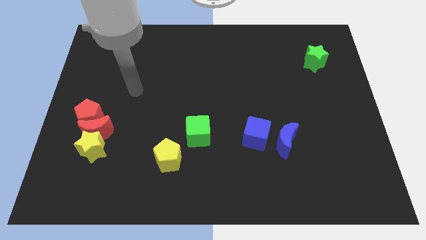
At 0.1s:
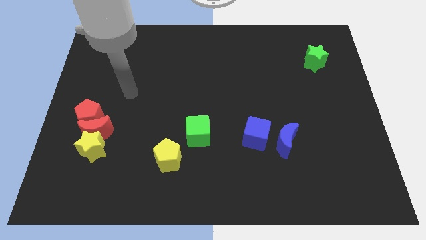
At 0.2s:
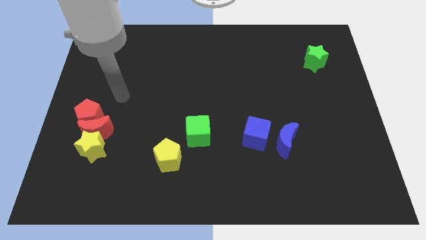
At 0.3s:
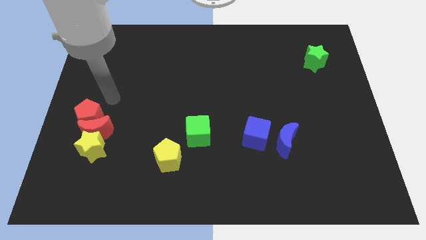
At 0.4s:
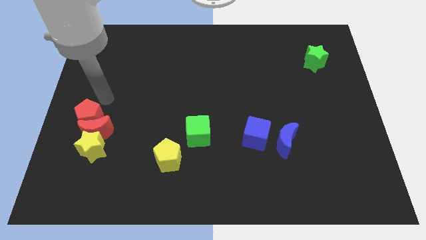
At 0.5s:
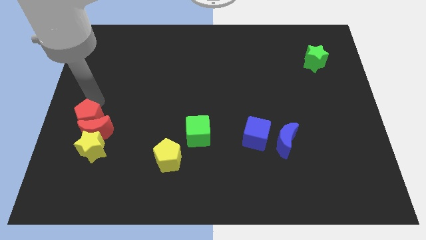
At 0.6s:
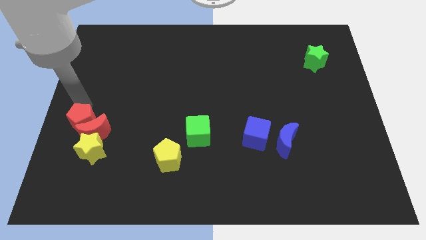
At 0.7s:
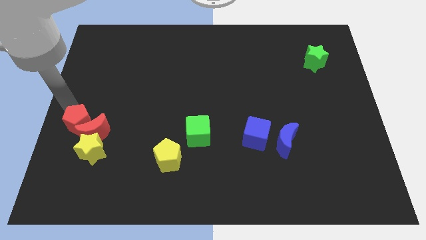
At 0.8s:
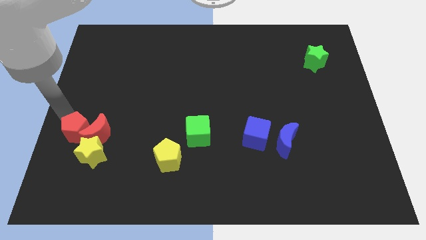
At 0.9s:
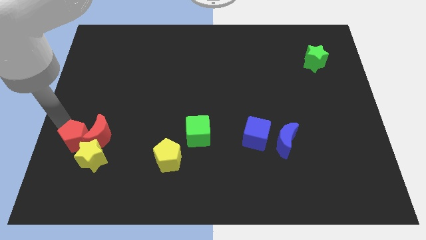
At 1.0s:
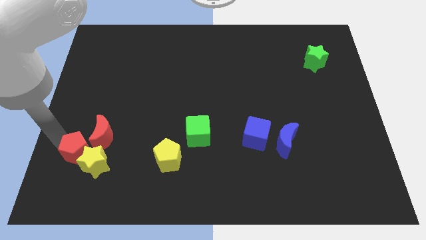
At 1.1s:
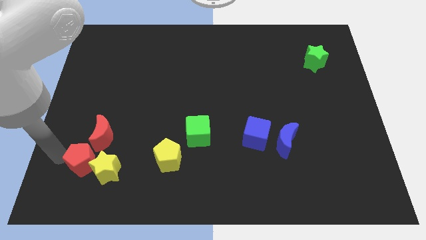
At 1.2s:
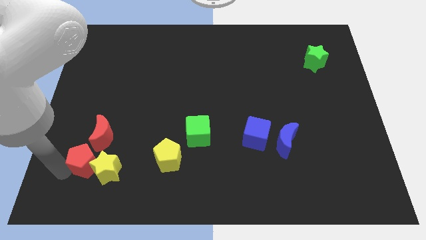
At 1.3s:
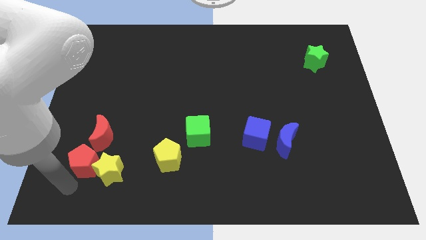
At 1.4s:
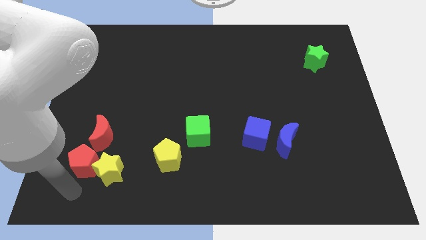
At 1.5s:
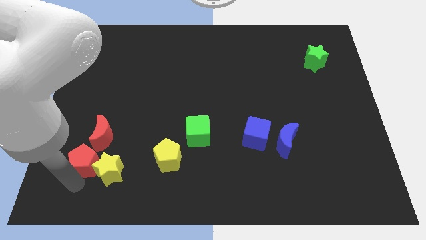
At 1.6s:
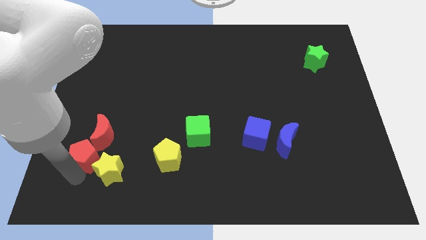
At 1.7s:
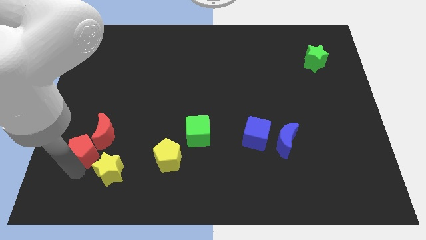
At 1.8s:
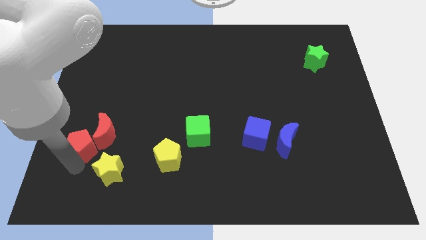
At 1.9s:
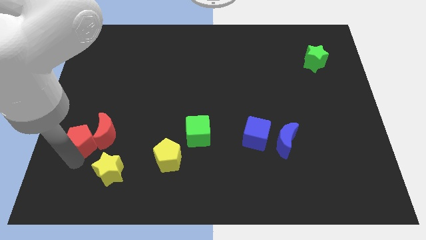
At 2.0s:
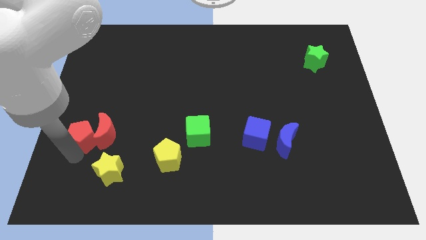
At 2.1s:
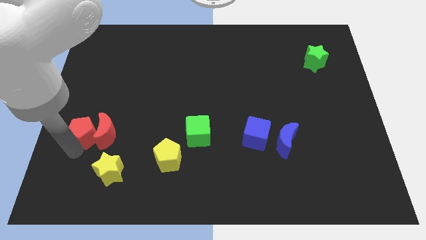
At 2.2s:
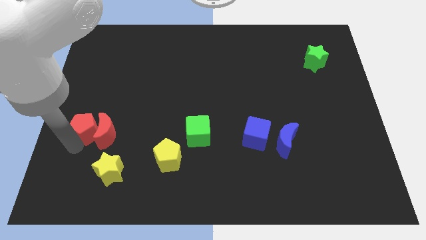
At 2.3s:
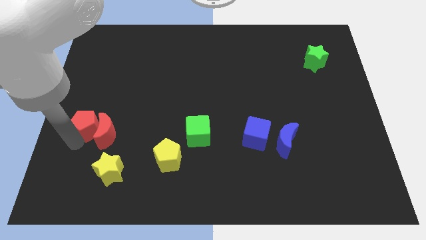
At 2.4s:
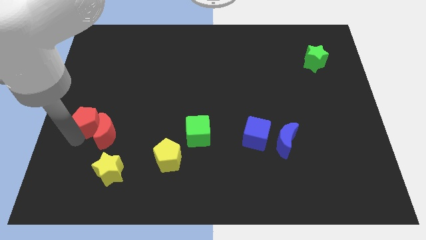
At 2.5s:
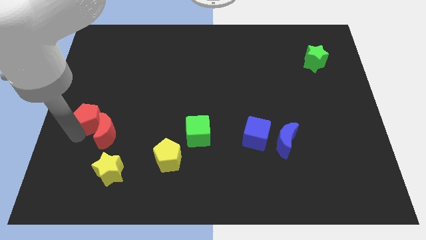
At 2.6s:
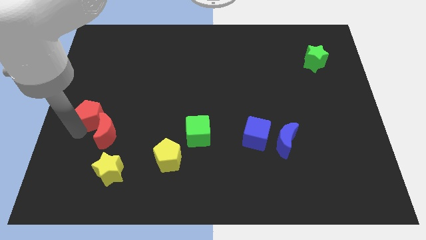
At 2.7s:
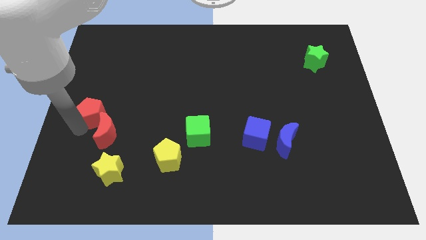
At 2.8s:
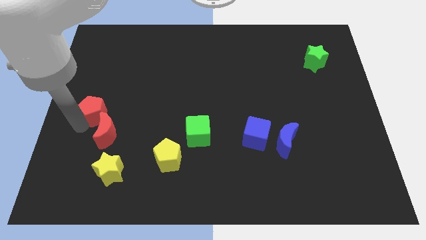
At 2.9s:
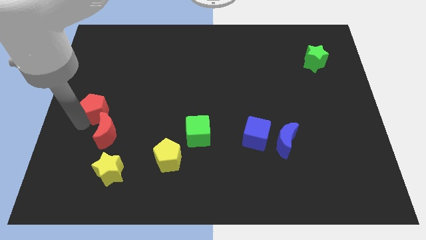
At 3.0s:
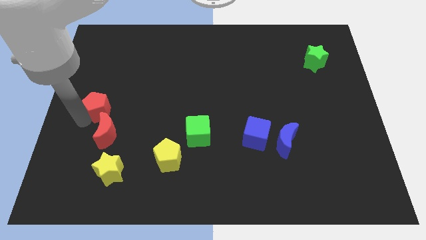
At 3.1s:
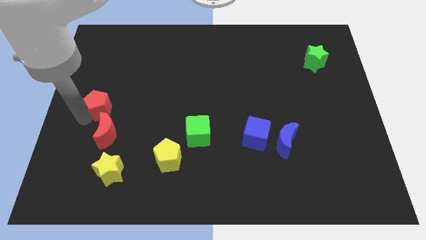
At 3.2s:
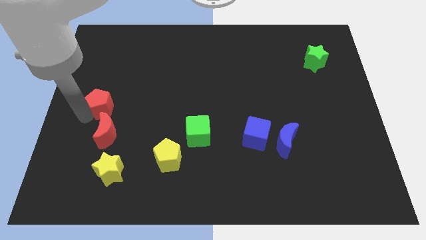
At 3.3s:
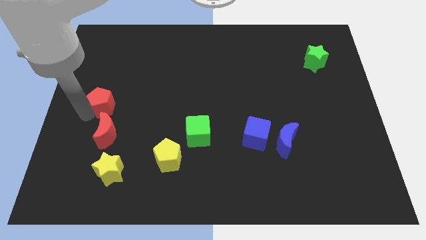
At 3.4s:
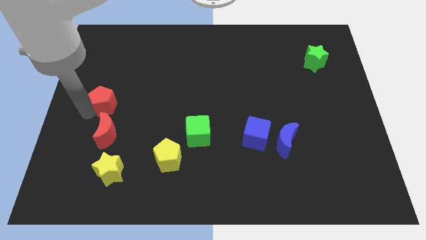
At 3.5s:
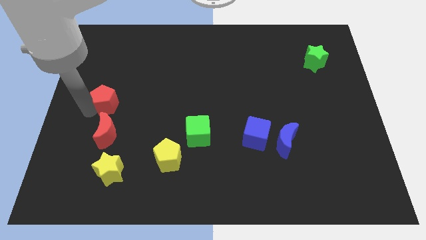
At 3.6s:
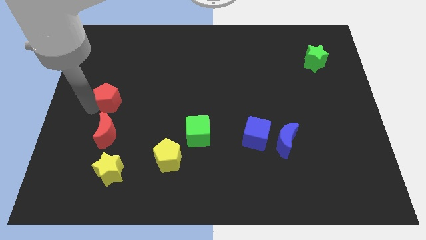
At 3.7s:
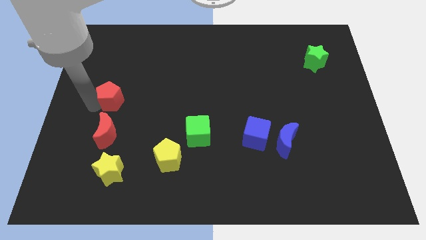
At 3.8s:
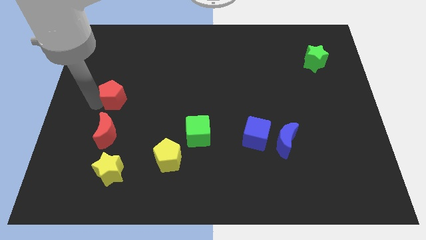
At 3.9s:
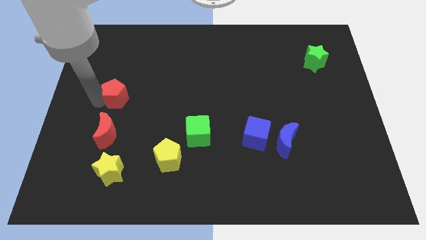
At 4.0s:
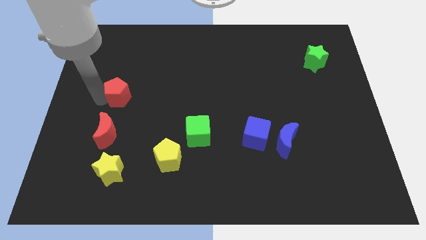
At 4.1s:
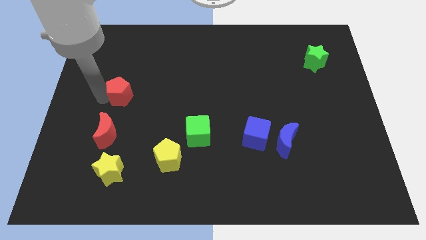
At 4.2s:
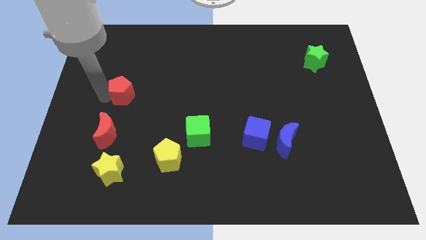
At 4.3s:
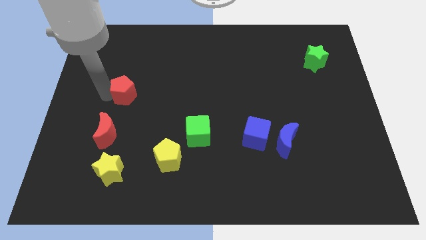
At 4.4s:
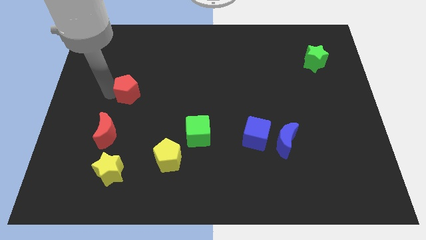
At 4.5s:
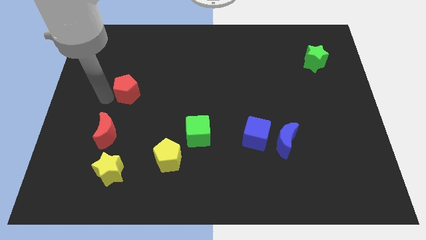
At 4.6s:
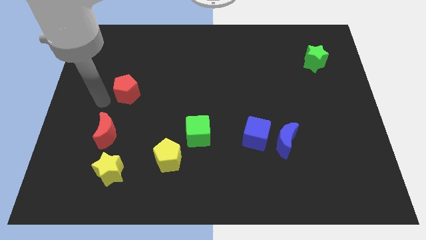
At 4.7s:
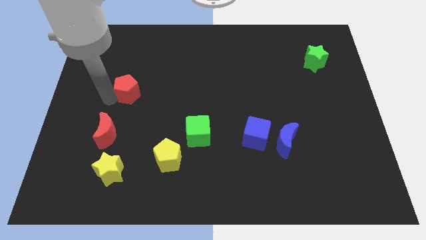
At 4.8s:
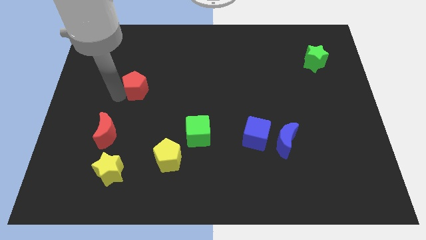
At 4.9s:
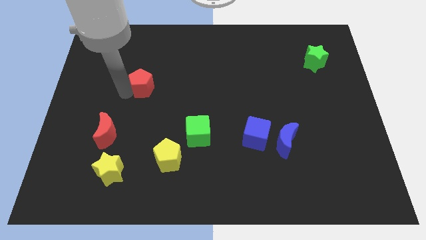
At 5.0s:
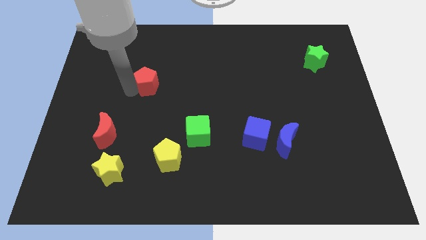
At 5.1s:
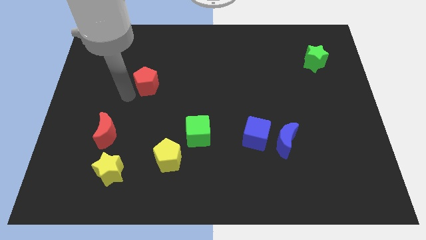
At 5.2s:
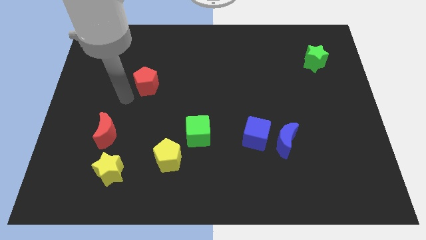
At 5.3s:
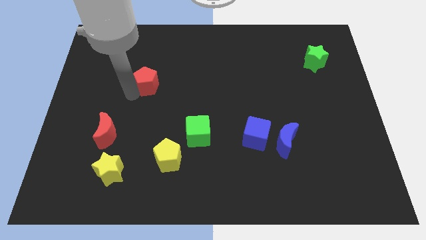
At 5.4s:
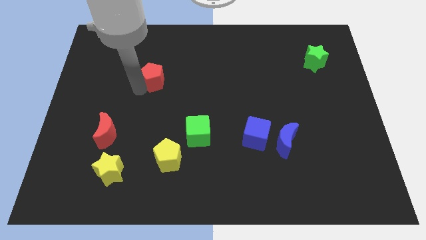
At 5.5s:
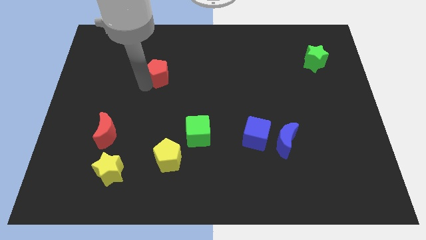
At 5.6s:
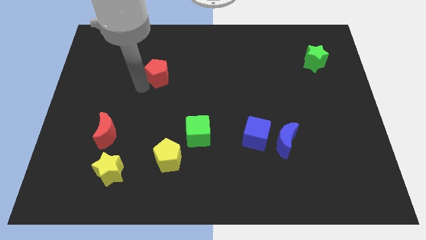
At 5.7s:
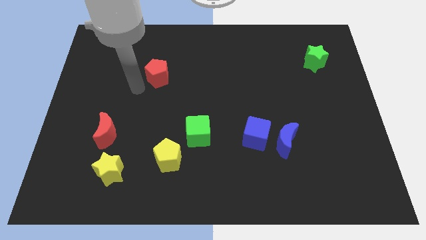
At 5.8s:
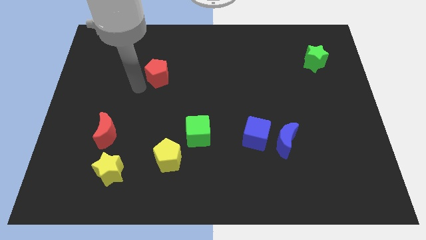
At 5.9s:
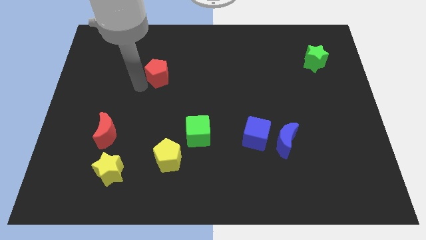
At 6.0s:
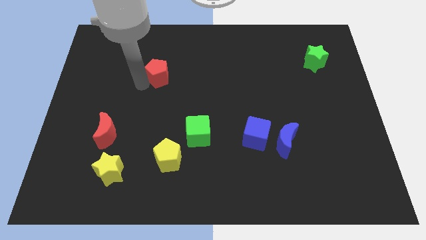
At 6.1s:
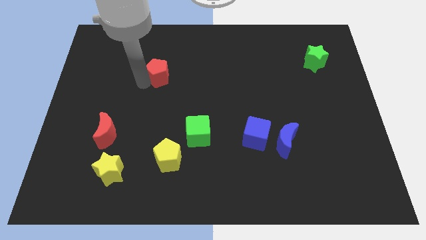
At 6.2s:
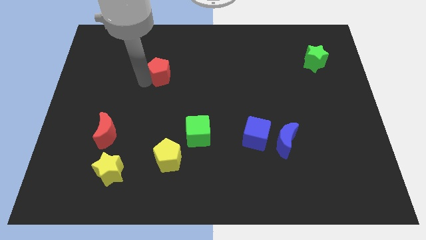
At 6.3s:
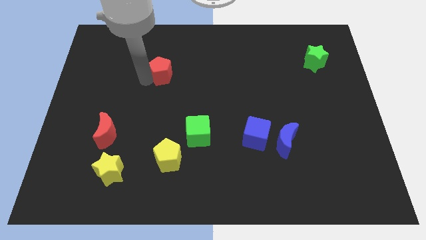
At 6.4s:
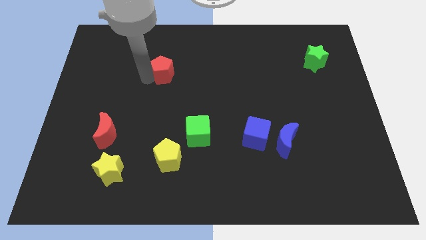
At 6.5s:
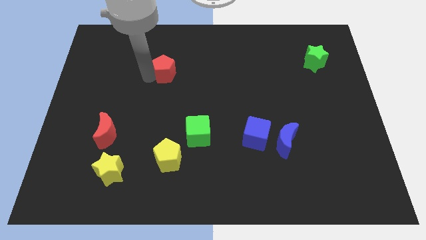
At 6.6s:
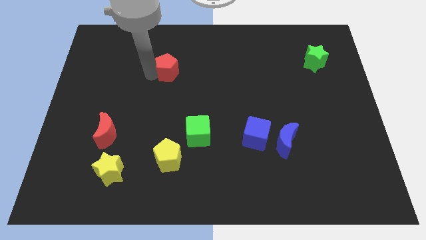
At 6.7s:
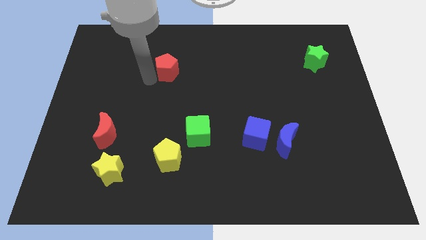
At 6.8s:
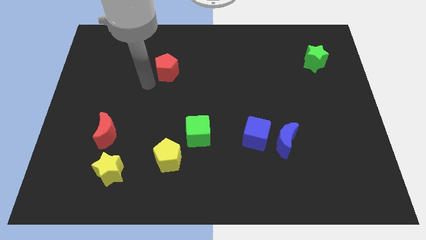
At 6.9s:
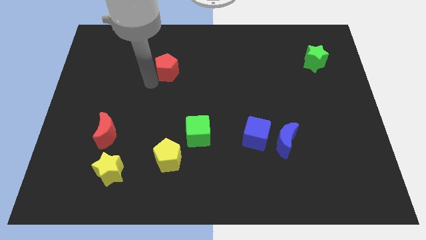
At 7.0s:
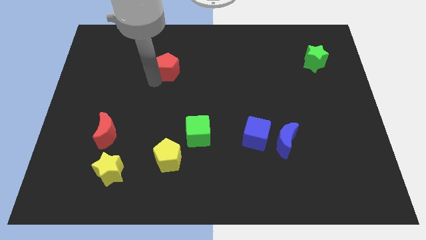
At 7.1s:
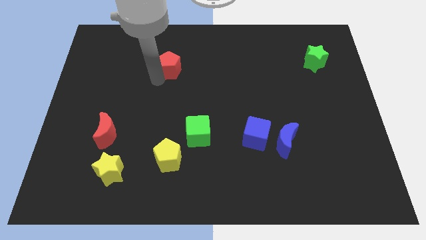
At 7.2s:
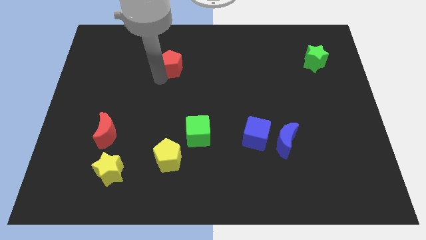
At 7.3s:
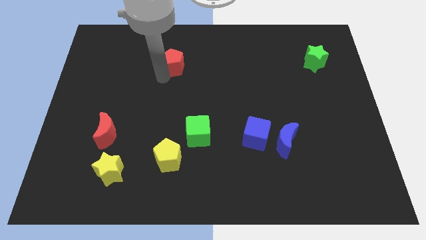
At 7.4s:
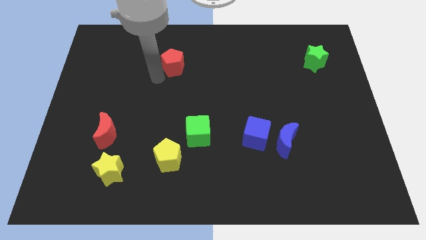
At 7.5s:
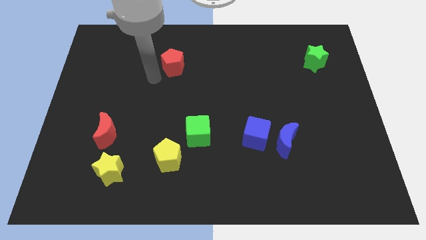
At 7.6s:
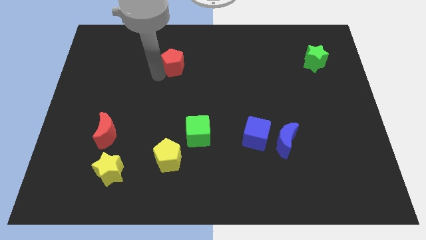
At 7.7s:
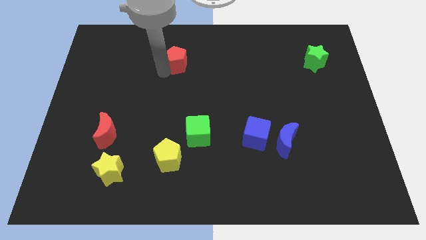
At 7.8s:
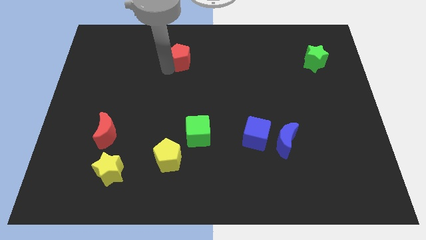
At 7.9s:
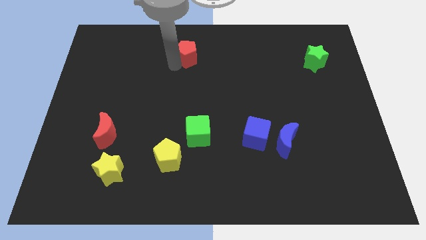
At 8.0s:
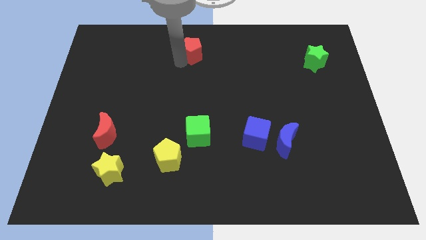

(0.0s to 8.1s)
push the red pentagon to the top
